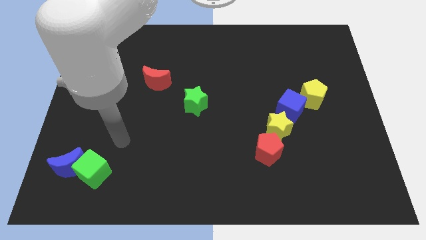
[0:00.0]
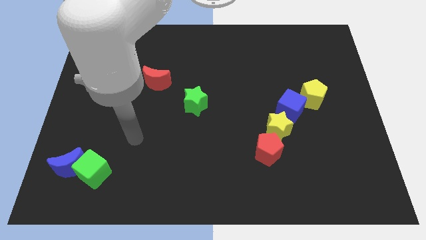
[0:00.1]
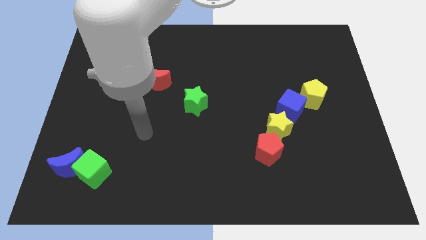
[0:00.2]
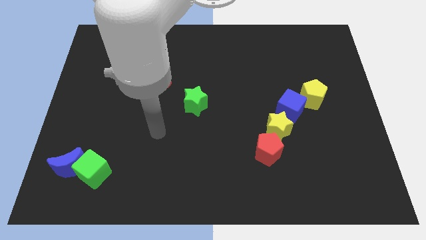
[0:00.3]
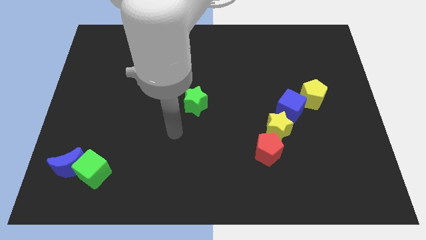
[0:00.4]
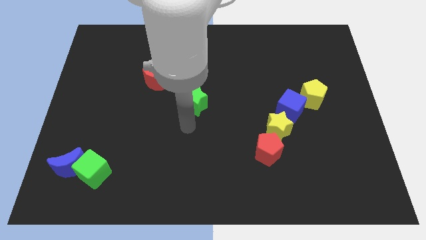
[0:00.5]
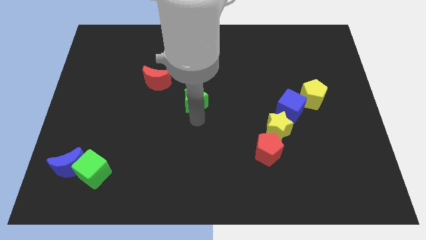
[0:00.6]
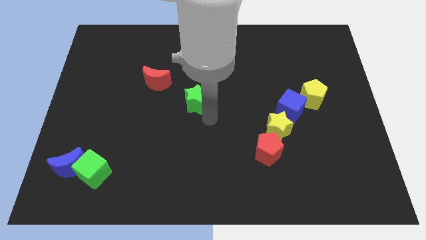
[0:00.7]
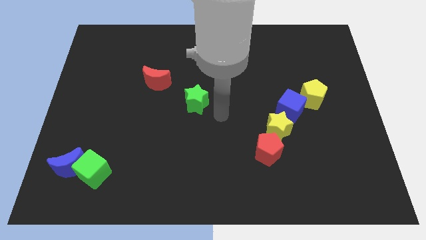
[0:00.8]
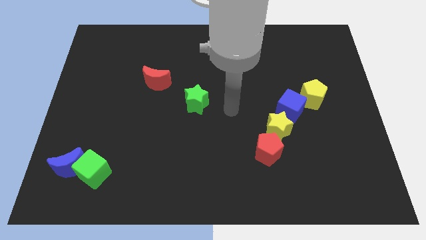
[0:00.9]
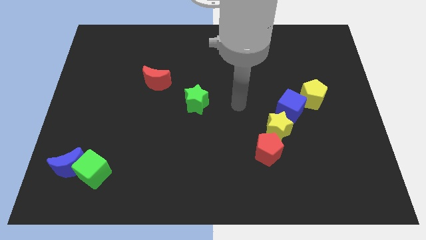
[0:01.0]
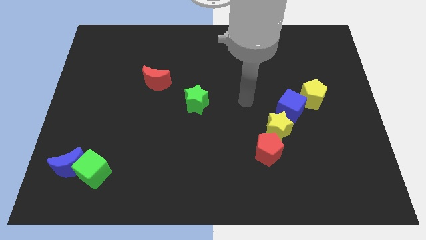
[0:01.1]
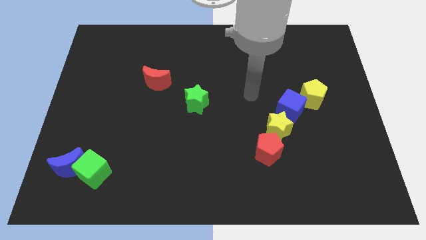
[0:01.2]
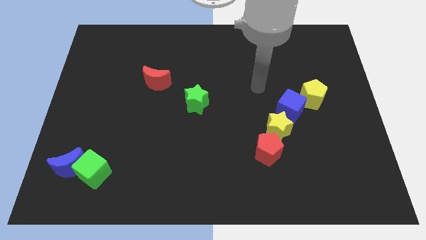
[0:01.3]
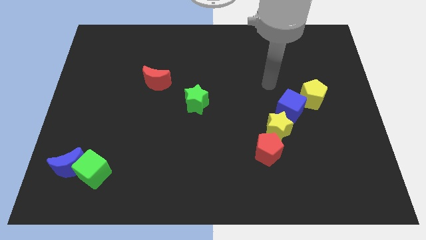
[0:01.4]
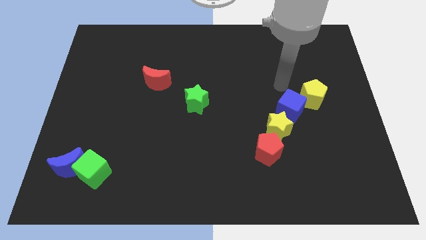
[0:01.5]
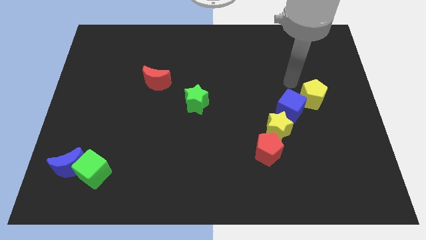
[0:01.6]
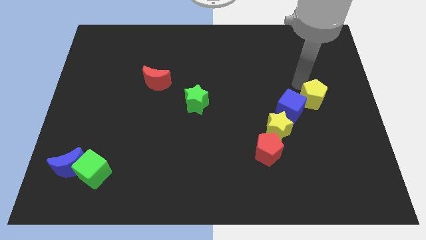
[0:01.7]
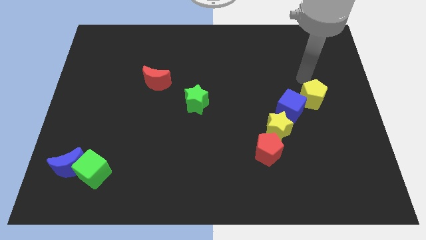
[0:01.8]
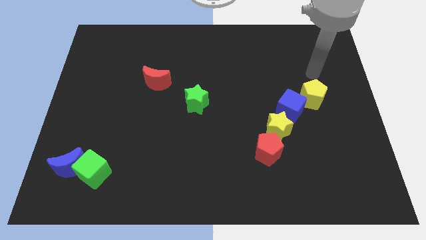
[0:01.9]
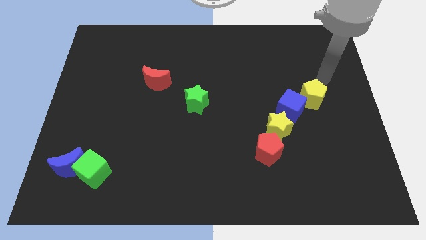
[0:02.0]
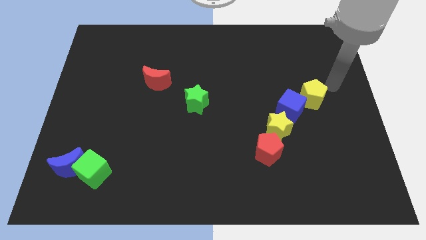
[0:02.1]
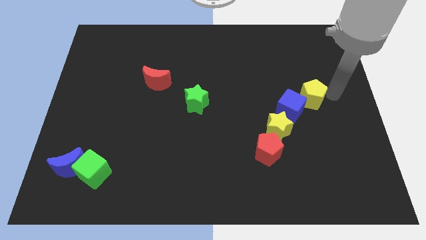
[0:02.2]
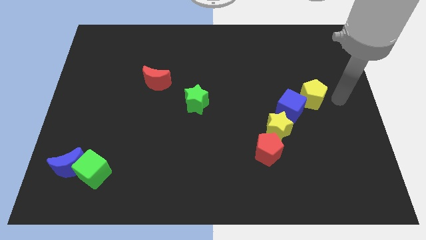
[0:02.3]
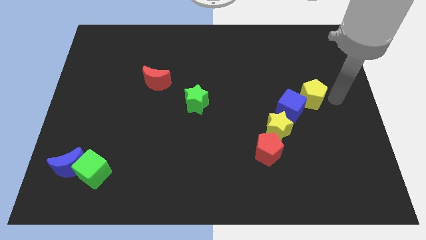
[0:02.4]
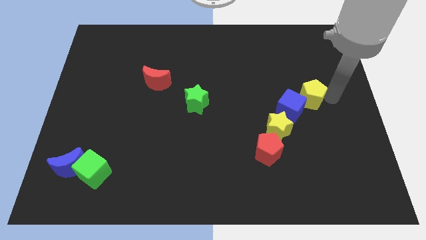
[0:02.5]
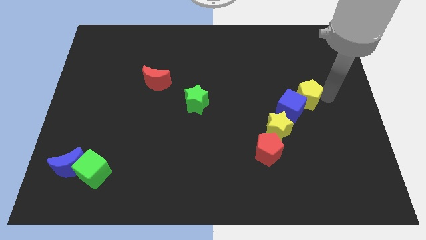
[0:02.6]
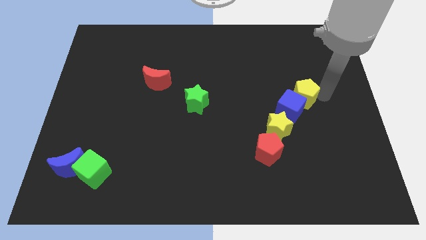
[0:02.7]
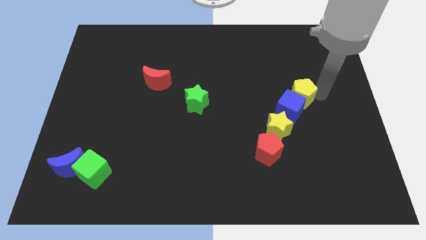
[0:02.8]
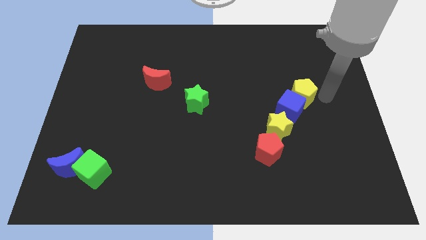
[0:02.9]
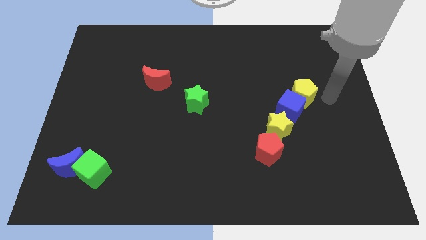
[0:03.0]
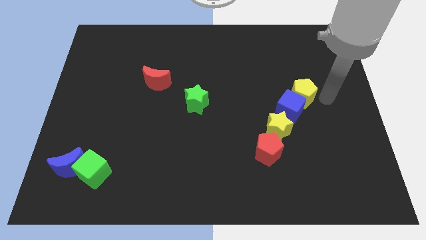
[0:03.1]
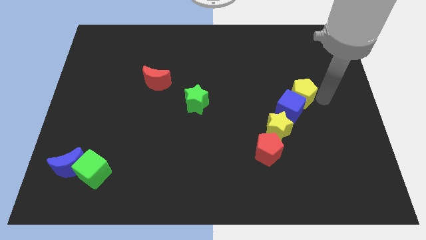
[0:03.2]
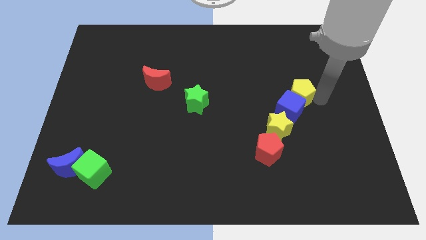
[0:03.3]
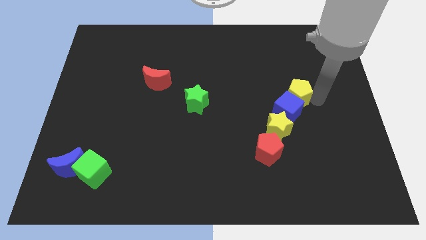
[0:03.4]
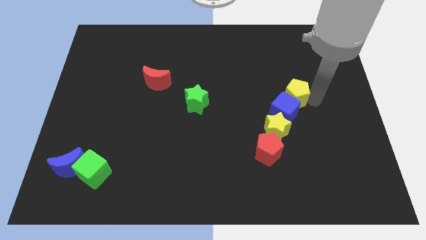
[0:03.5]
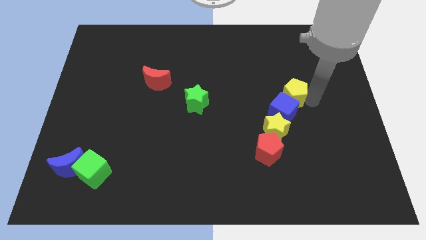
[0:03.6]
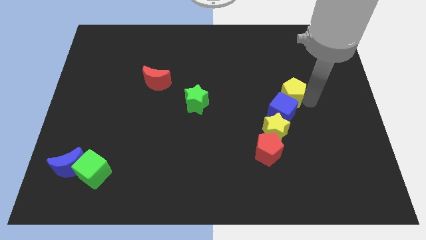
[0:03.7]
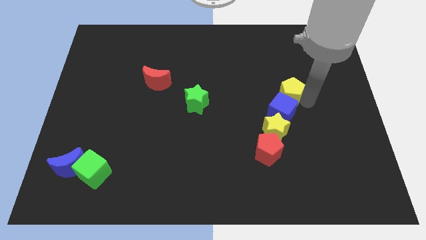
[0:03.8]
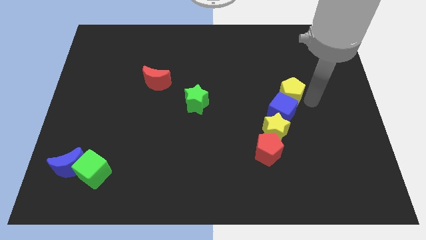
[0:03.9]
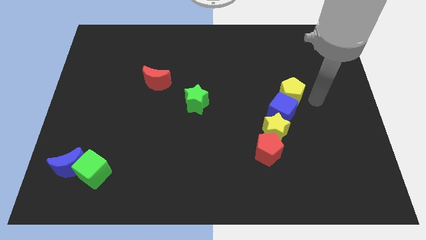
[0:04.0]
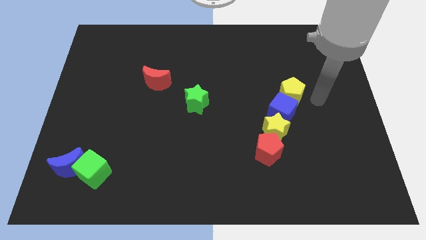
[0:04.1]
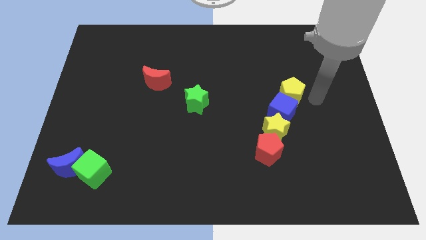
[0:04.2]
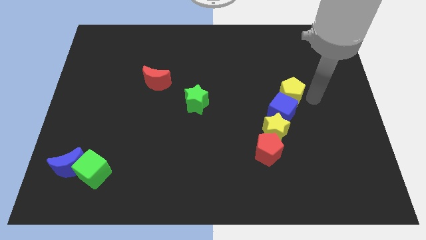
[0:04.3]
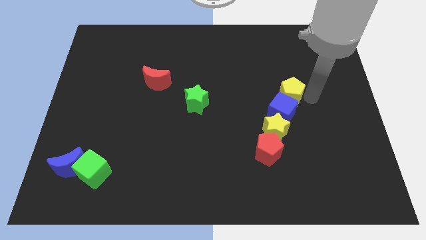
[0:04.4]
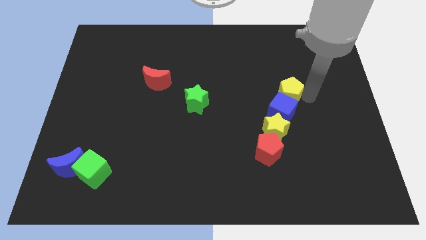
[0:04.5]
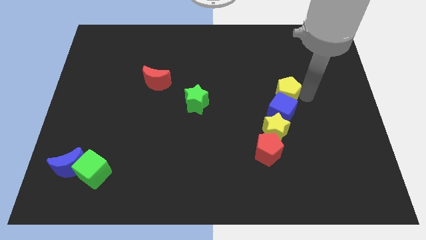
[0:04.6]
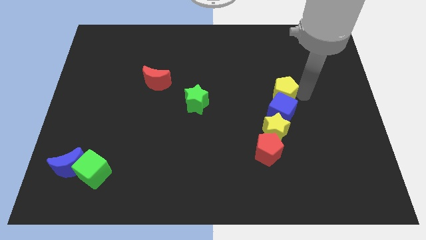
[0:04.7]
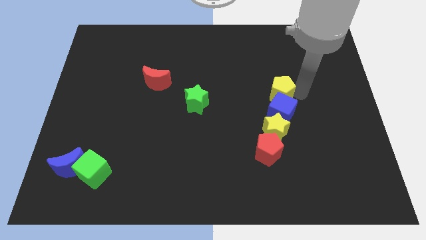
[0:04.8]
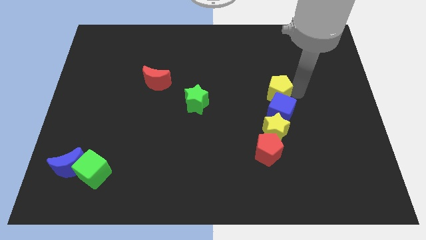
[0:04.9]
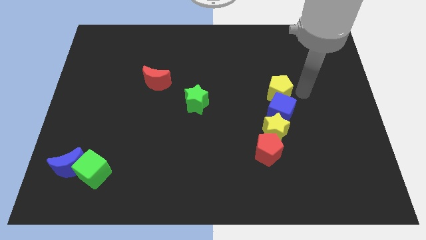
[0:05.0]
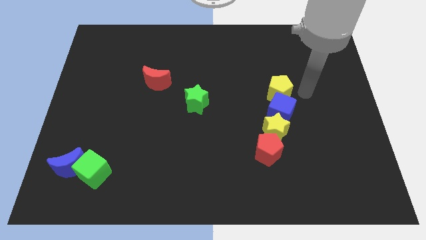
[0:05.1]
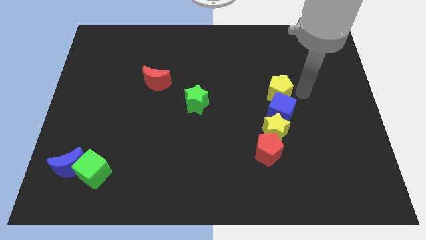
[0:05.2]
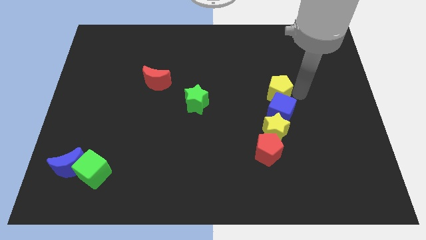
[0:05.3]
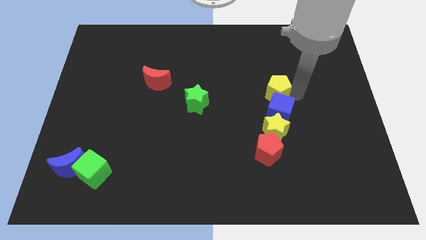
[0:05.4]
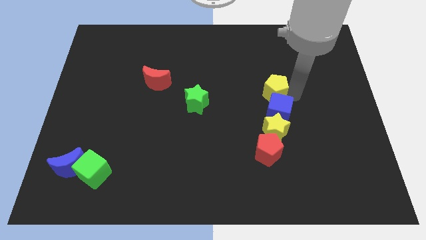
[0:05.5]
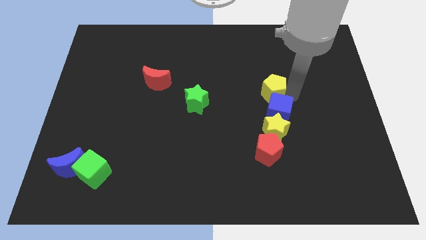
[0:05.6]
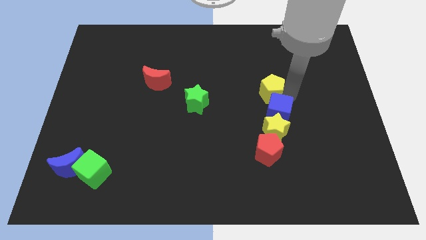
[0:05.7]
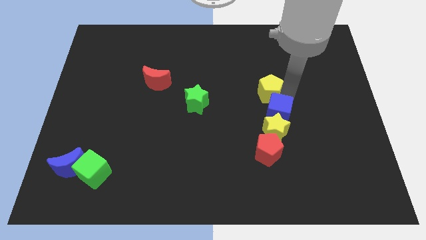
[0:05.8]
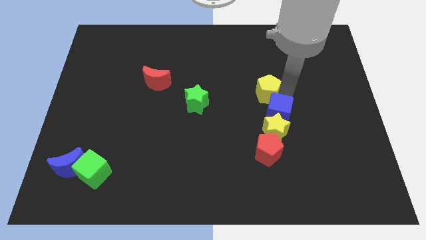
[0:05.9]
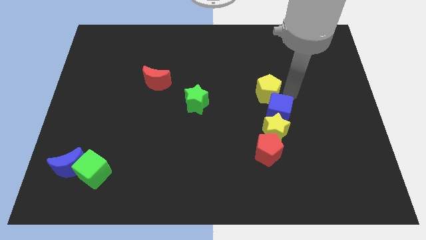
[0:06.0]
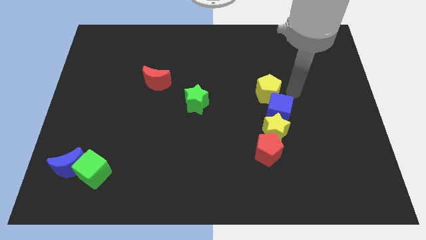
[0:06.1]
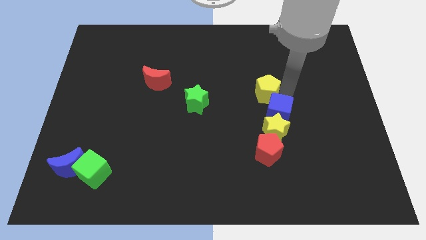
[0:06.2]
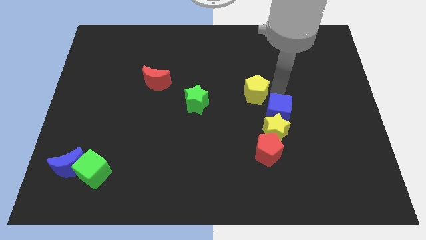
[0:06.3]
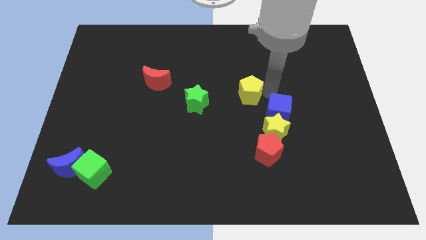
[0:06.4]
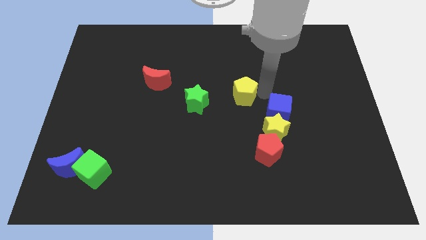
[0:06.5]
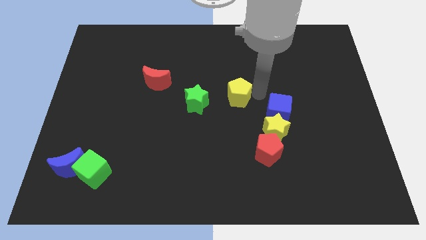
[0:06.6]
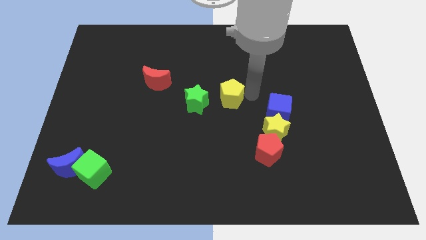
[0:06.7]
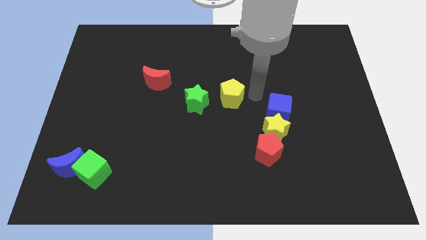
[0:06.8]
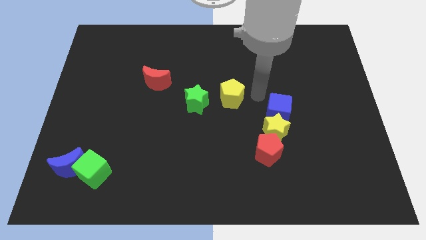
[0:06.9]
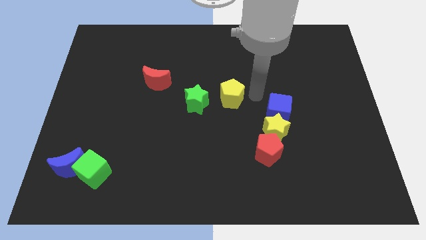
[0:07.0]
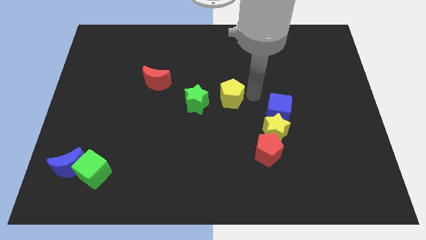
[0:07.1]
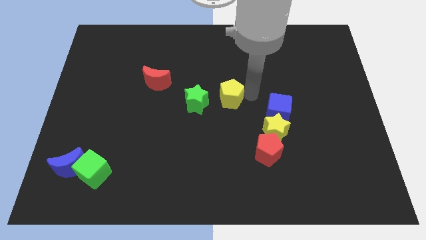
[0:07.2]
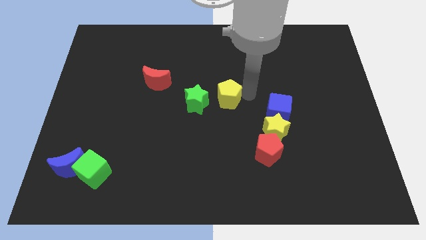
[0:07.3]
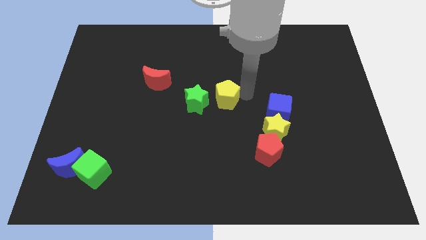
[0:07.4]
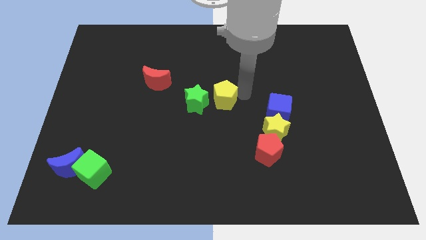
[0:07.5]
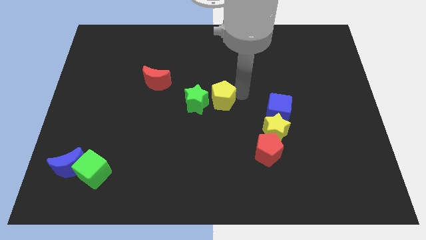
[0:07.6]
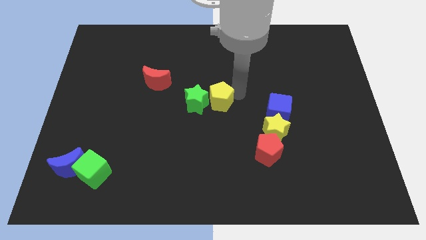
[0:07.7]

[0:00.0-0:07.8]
slide the yellow pentagon to the green star
